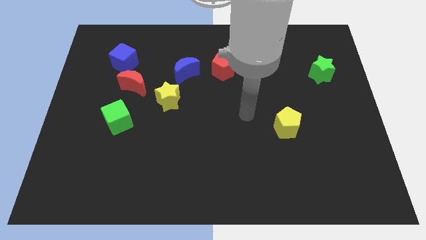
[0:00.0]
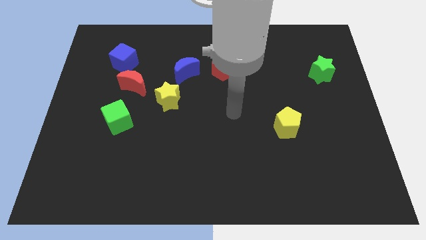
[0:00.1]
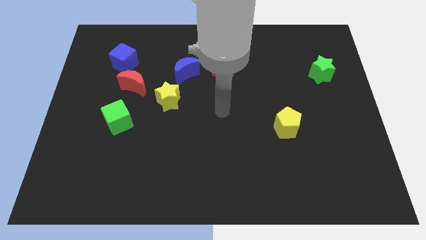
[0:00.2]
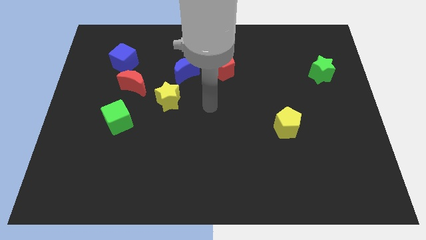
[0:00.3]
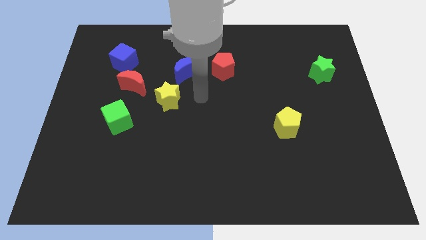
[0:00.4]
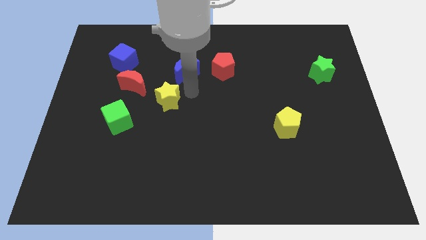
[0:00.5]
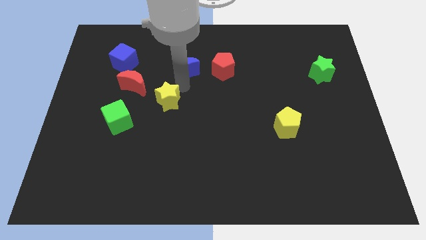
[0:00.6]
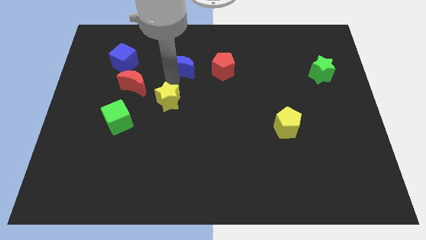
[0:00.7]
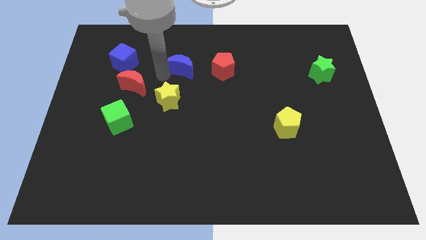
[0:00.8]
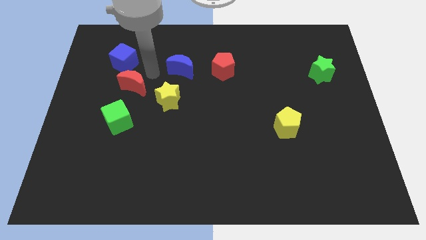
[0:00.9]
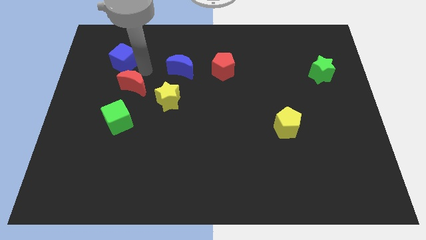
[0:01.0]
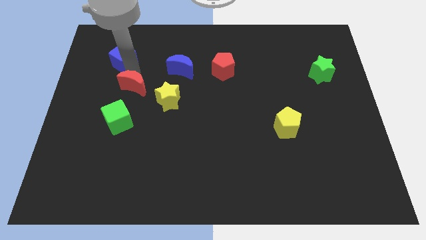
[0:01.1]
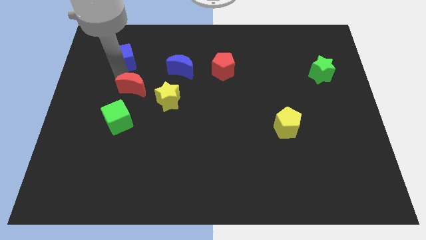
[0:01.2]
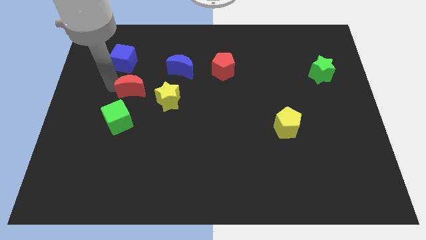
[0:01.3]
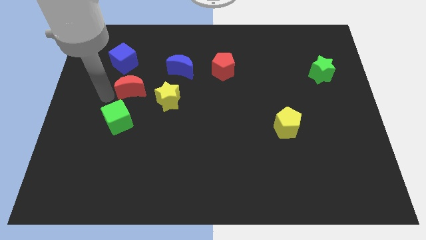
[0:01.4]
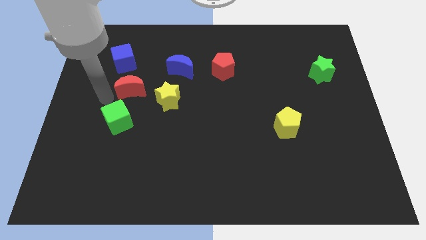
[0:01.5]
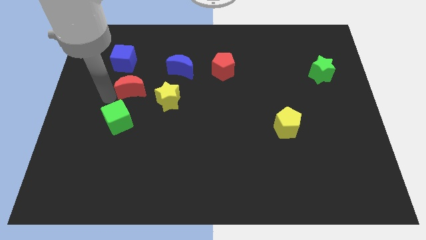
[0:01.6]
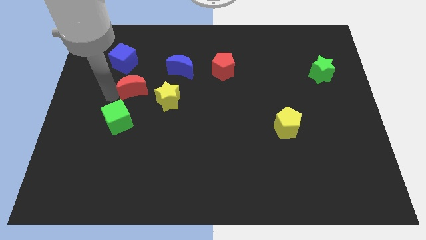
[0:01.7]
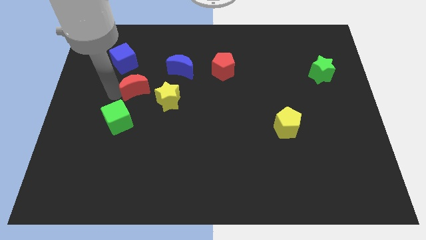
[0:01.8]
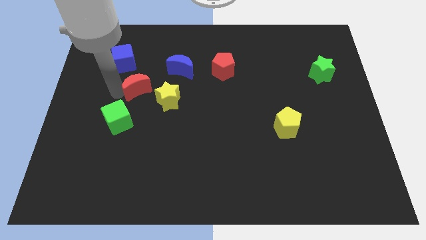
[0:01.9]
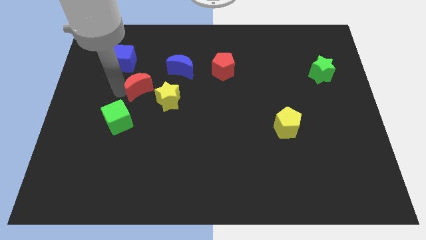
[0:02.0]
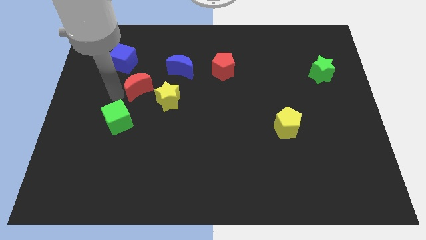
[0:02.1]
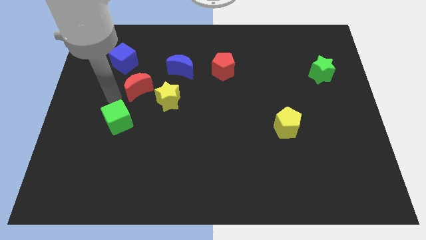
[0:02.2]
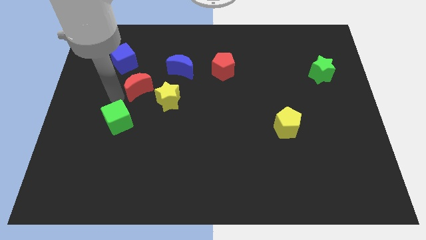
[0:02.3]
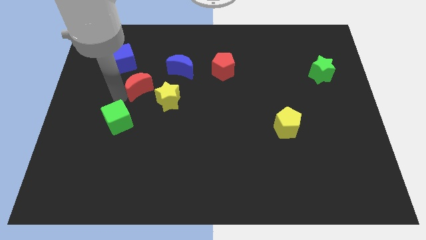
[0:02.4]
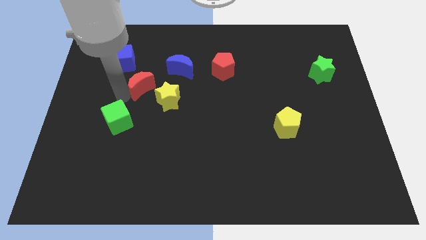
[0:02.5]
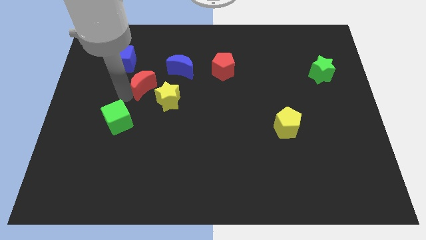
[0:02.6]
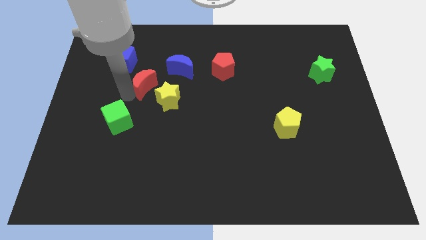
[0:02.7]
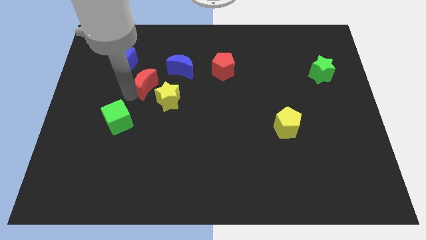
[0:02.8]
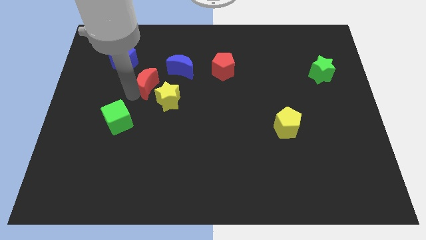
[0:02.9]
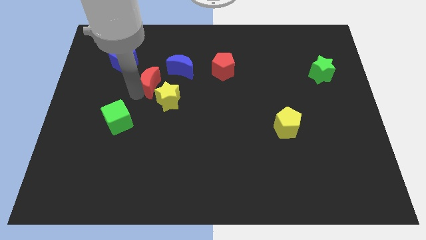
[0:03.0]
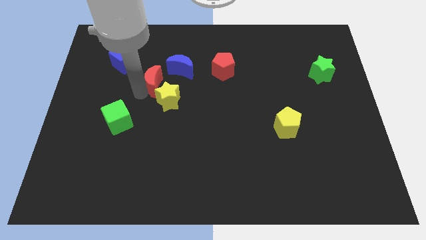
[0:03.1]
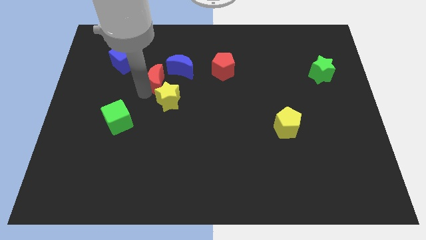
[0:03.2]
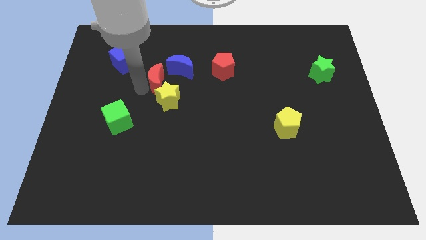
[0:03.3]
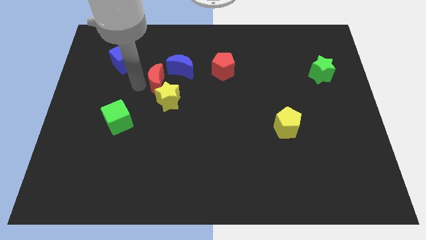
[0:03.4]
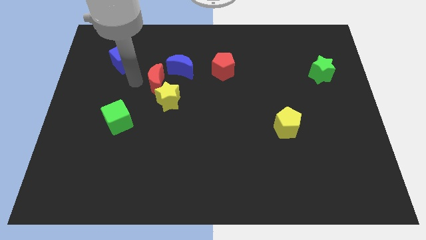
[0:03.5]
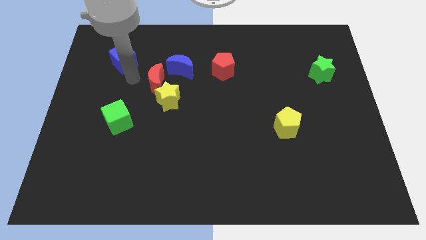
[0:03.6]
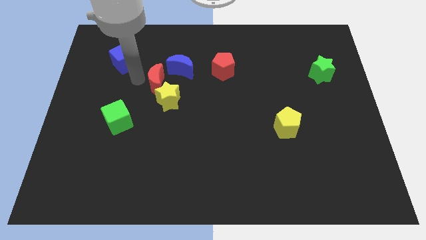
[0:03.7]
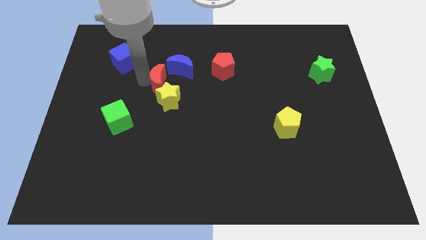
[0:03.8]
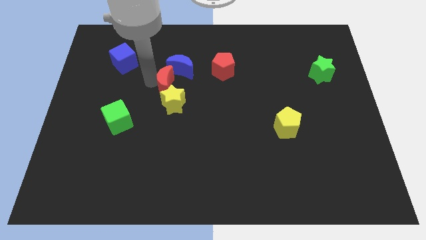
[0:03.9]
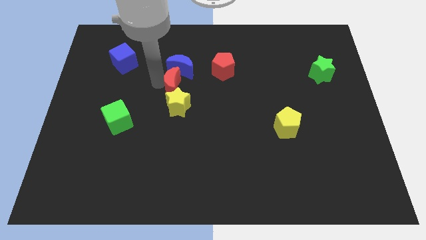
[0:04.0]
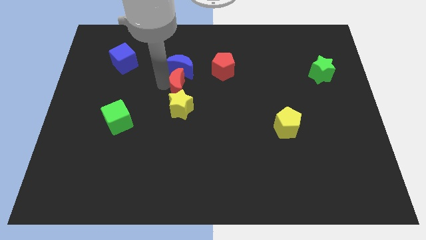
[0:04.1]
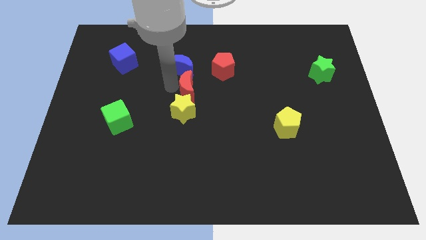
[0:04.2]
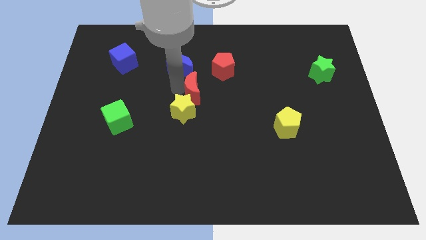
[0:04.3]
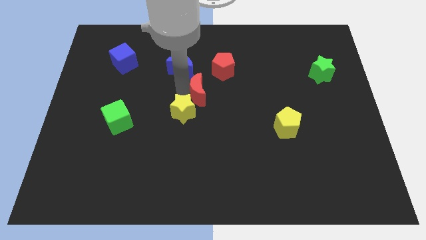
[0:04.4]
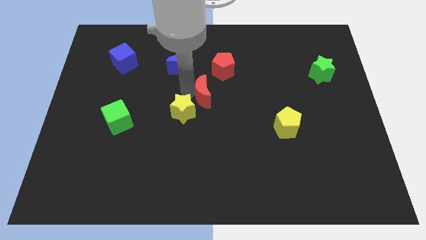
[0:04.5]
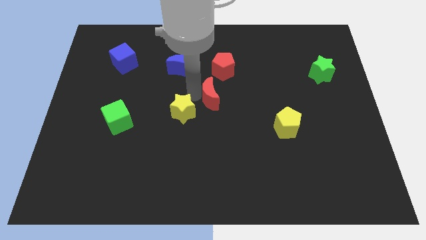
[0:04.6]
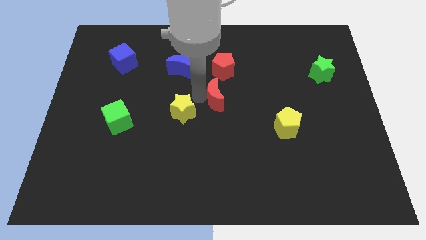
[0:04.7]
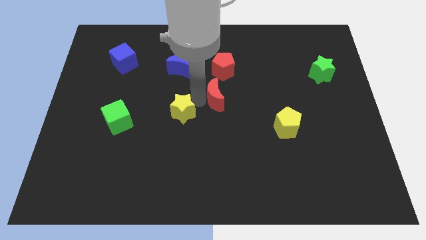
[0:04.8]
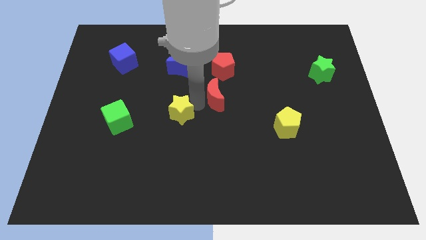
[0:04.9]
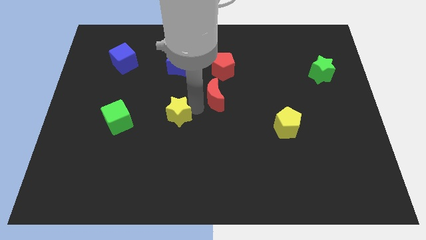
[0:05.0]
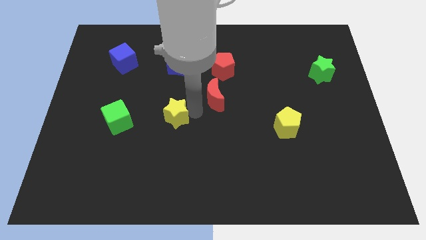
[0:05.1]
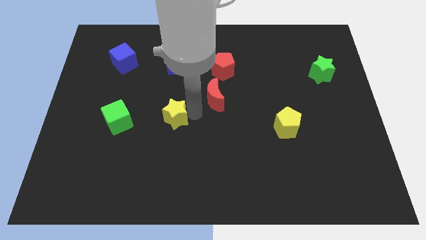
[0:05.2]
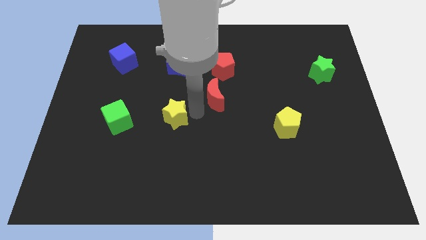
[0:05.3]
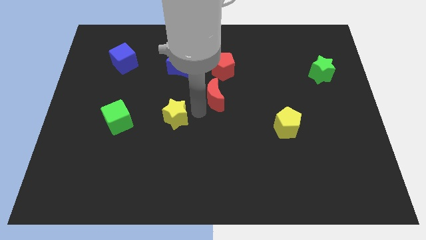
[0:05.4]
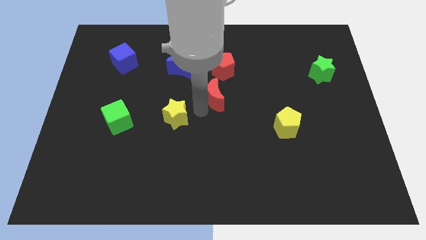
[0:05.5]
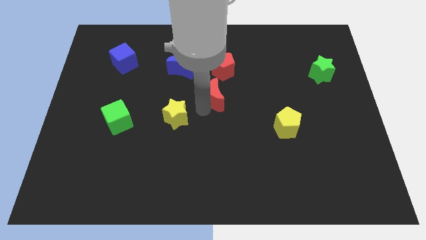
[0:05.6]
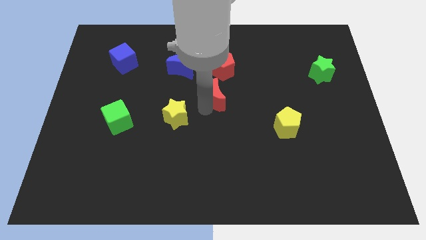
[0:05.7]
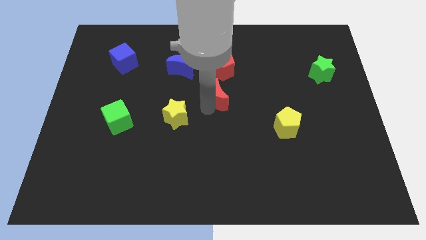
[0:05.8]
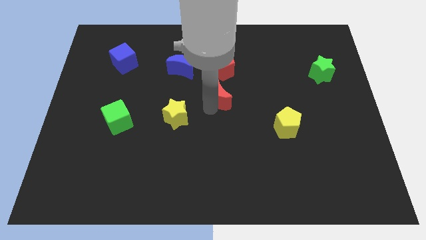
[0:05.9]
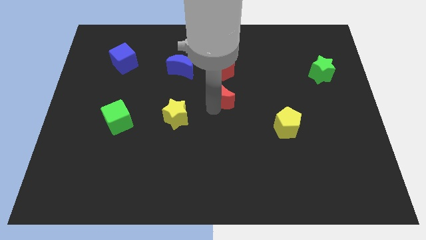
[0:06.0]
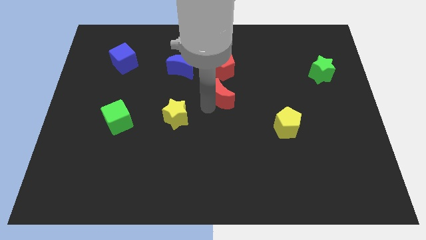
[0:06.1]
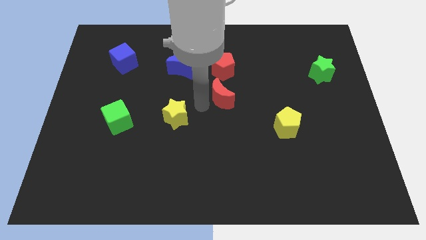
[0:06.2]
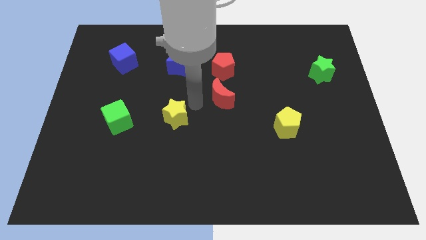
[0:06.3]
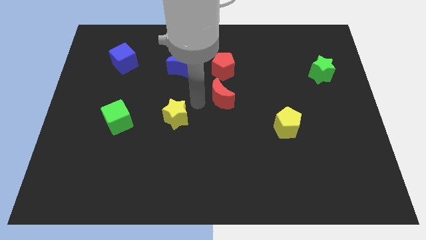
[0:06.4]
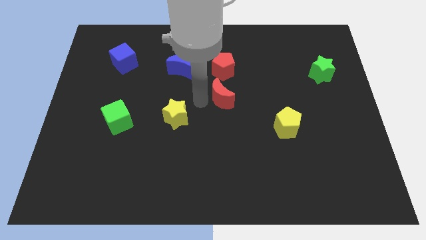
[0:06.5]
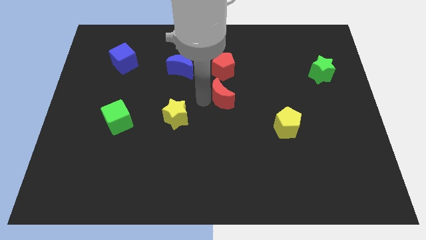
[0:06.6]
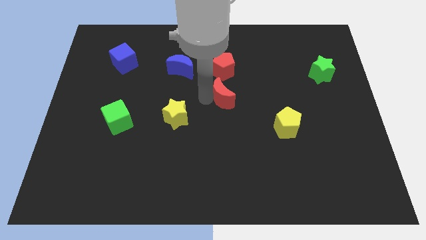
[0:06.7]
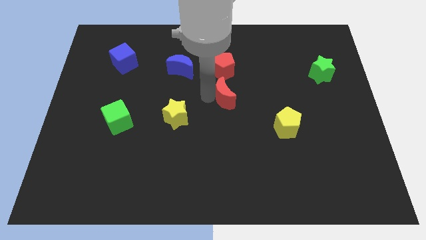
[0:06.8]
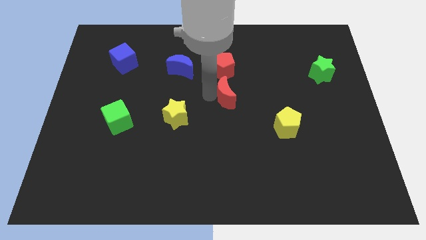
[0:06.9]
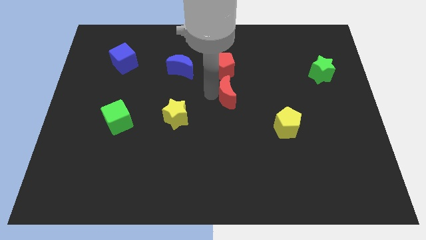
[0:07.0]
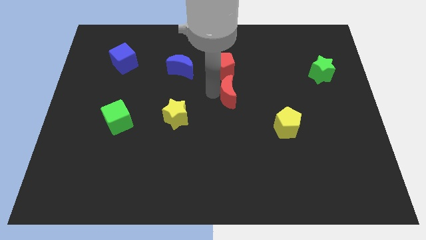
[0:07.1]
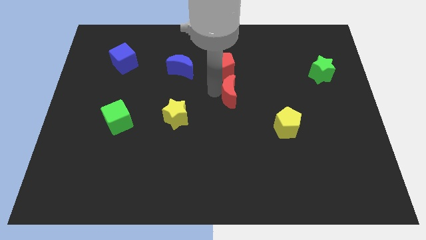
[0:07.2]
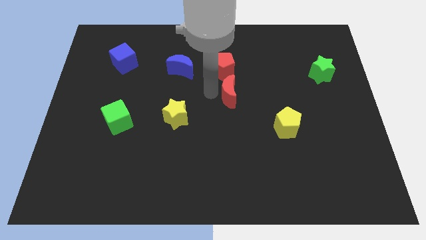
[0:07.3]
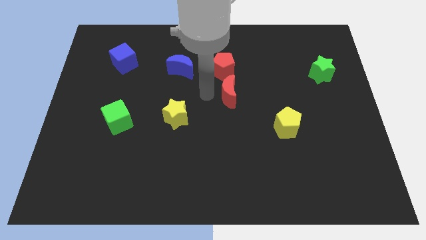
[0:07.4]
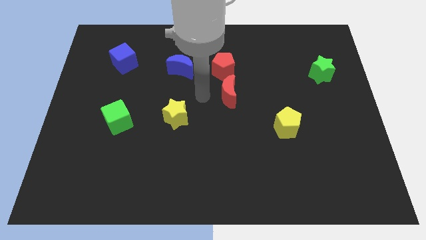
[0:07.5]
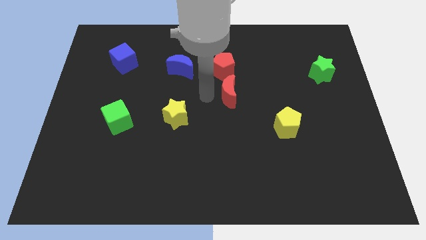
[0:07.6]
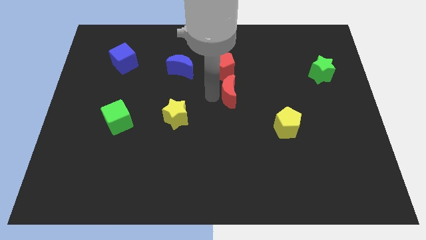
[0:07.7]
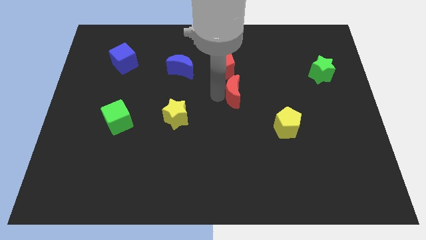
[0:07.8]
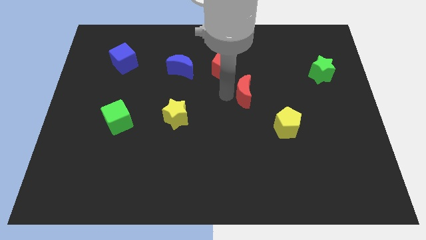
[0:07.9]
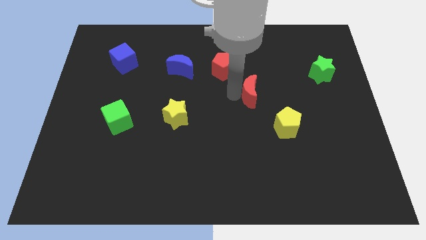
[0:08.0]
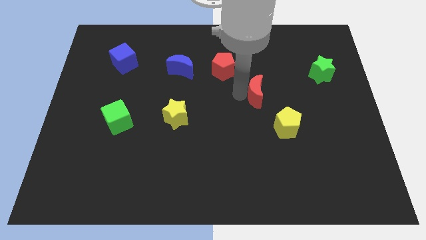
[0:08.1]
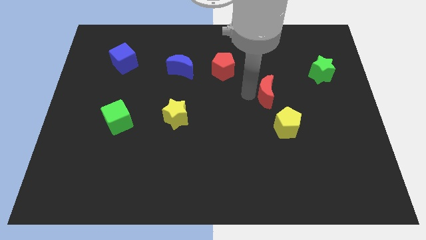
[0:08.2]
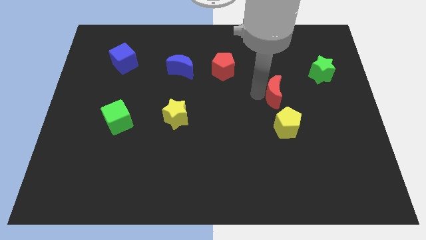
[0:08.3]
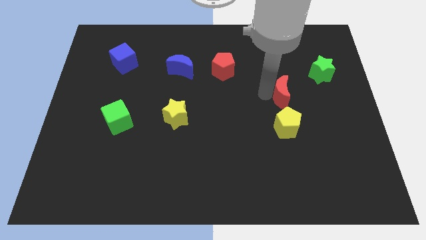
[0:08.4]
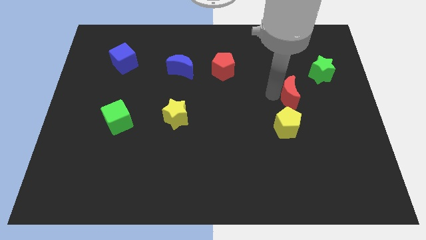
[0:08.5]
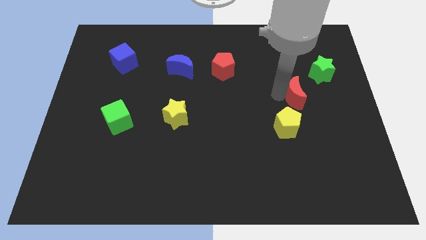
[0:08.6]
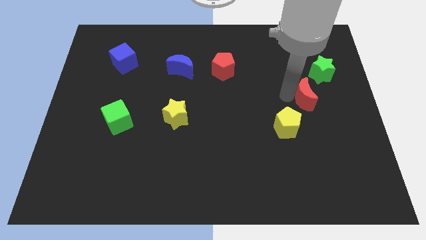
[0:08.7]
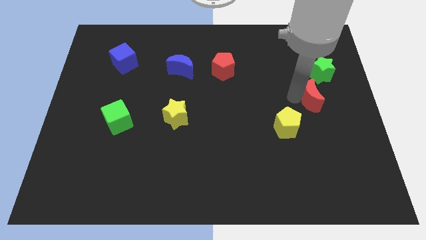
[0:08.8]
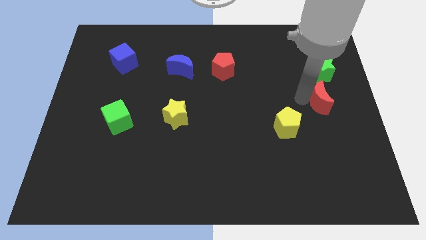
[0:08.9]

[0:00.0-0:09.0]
slide the red moon to the right side
